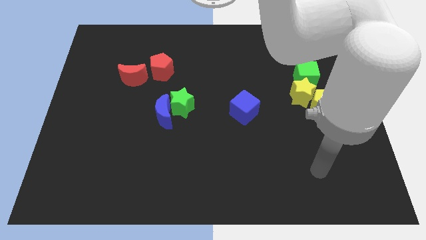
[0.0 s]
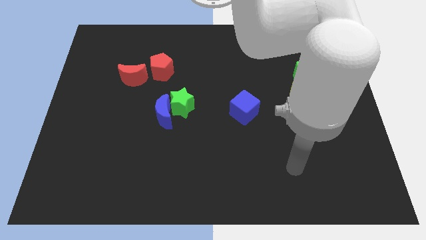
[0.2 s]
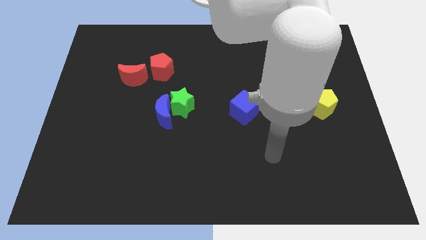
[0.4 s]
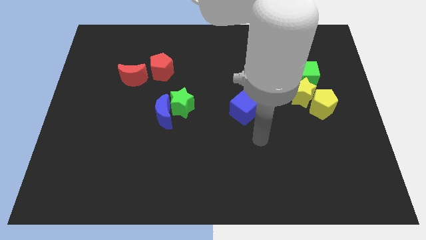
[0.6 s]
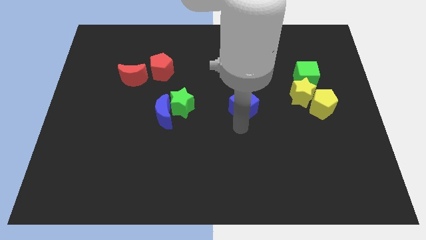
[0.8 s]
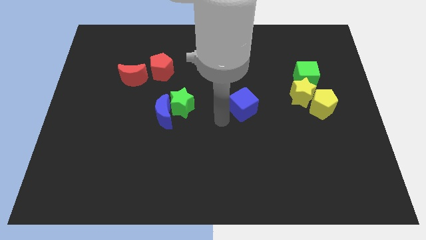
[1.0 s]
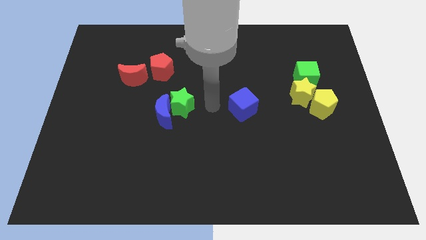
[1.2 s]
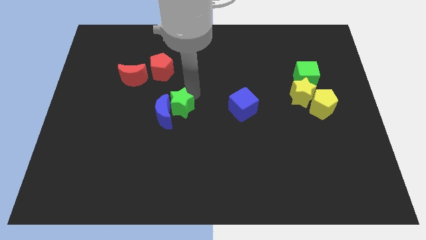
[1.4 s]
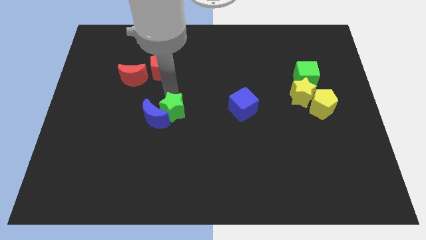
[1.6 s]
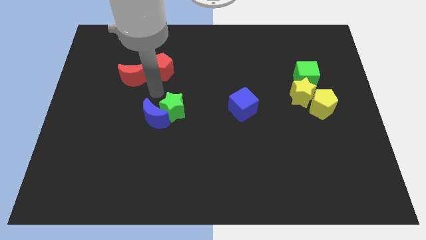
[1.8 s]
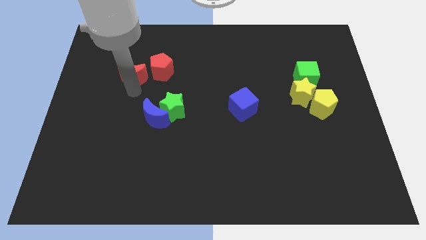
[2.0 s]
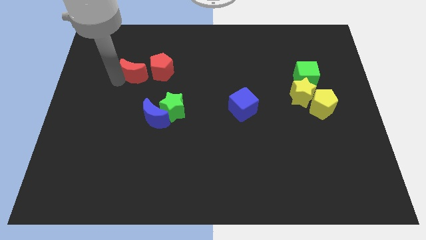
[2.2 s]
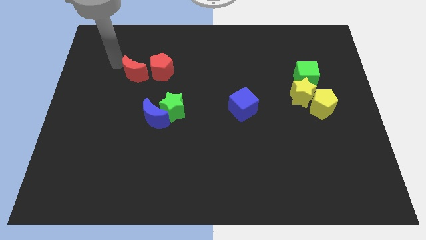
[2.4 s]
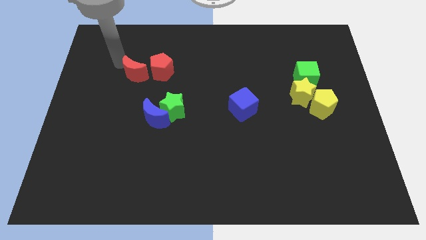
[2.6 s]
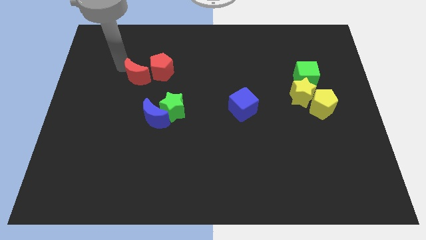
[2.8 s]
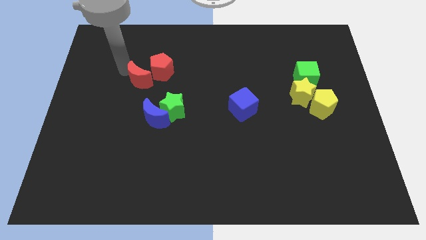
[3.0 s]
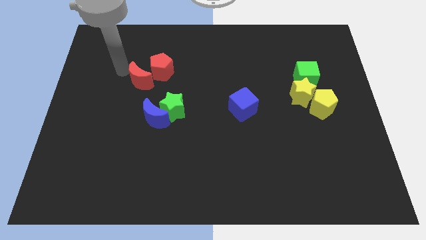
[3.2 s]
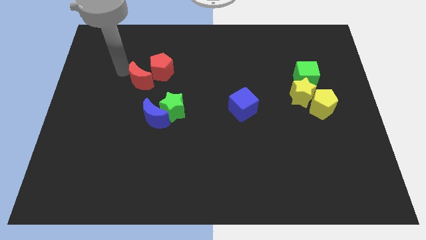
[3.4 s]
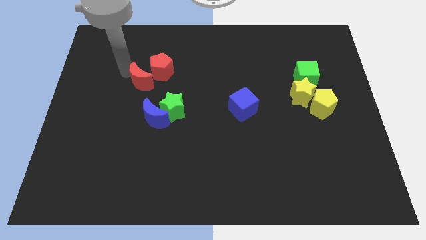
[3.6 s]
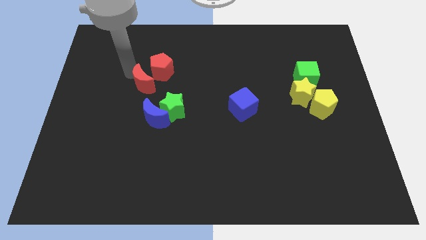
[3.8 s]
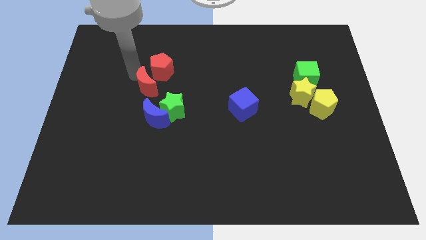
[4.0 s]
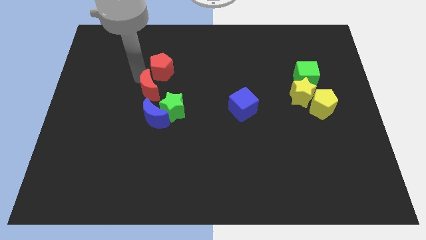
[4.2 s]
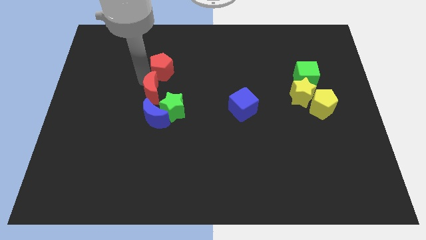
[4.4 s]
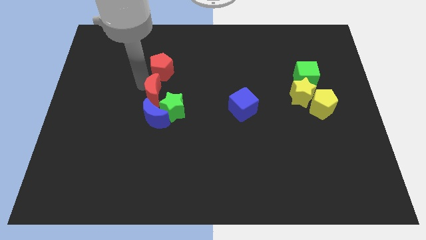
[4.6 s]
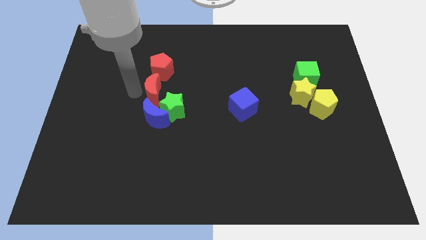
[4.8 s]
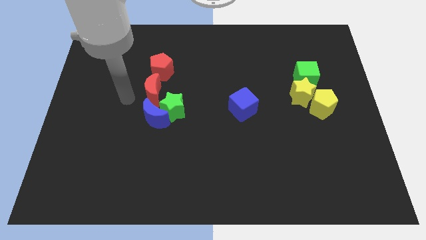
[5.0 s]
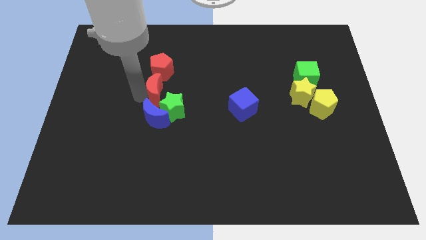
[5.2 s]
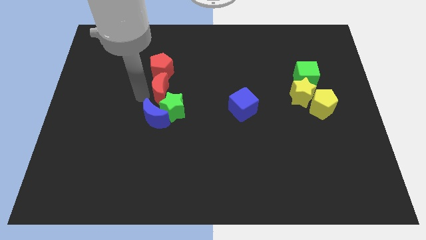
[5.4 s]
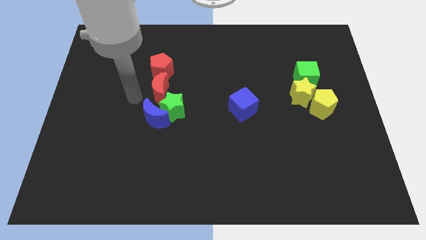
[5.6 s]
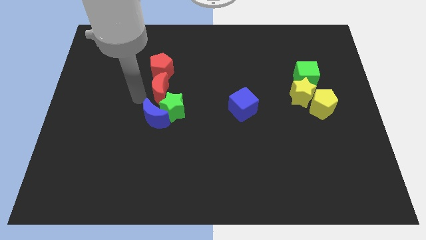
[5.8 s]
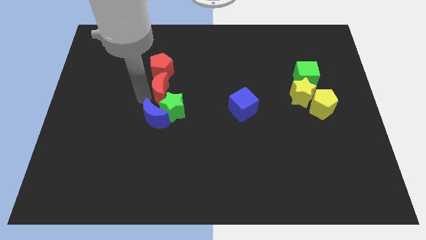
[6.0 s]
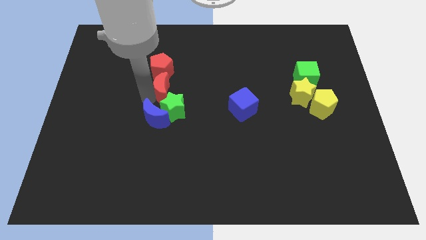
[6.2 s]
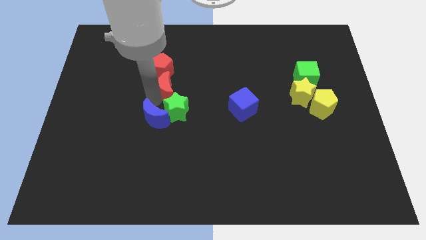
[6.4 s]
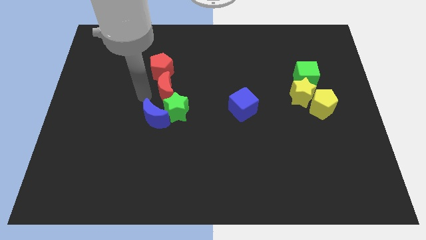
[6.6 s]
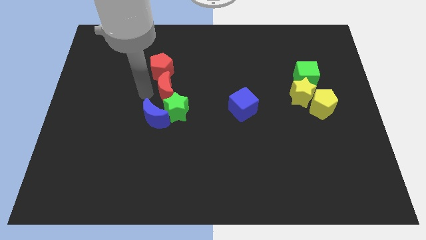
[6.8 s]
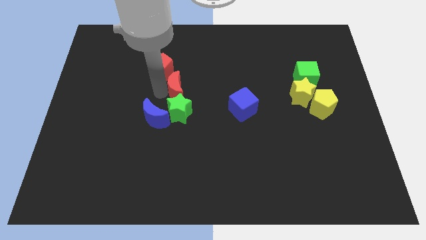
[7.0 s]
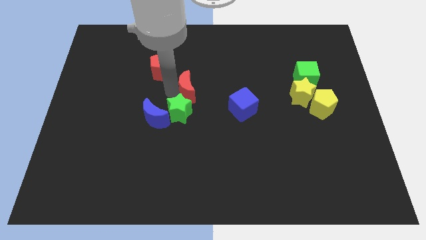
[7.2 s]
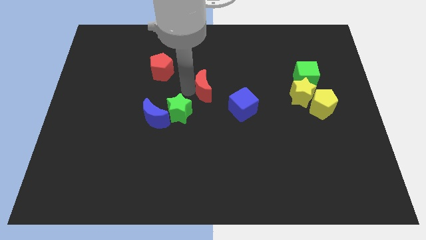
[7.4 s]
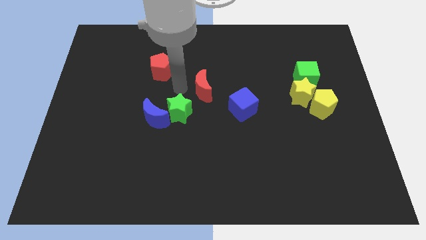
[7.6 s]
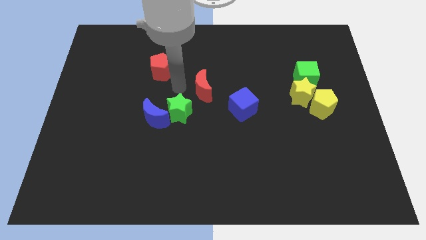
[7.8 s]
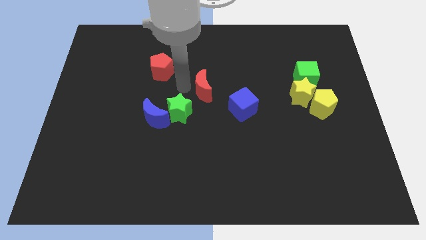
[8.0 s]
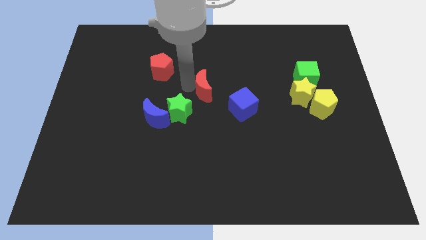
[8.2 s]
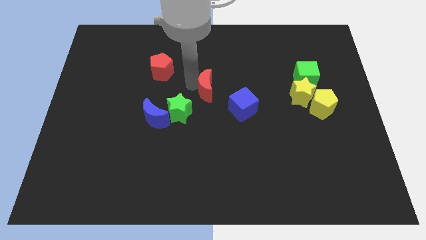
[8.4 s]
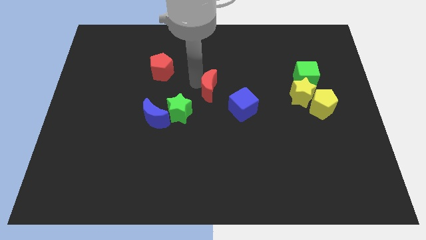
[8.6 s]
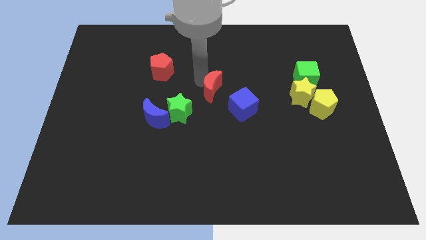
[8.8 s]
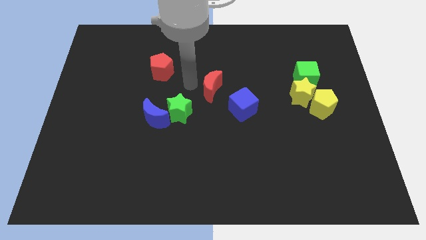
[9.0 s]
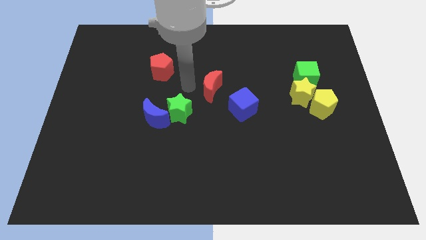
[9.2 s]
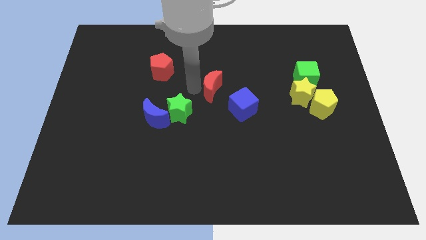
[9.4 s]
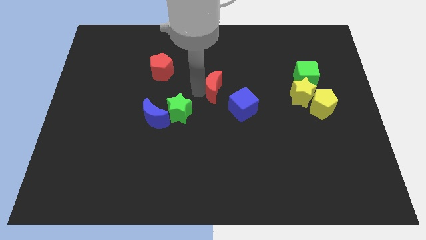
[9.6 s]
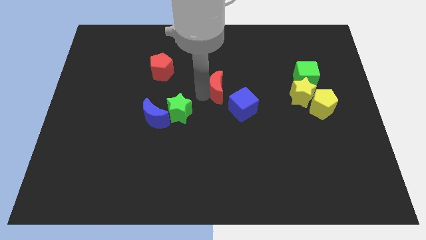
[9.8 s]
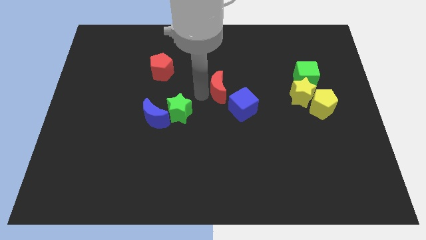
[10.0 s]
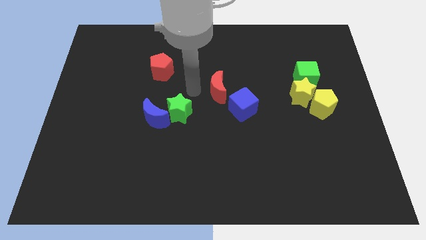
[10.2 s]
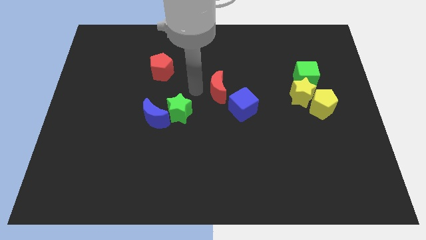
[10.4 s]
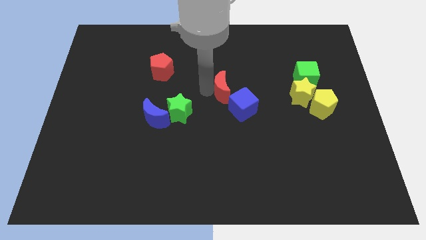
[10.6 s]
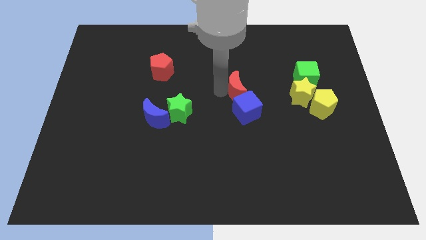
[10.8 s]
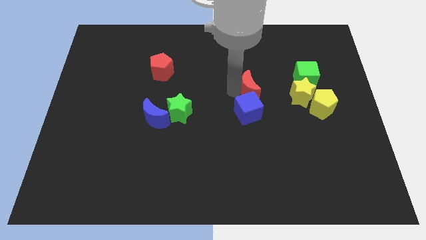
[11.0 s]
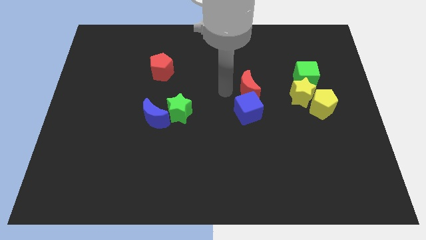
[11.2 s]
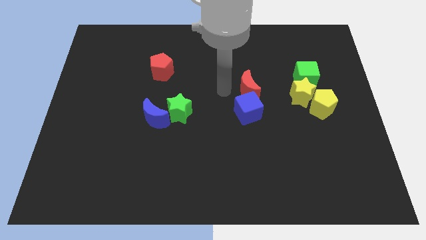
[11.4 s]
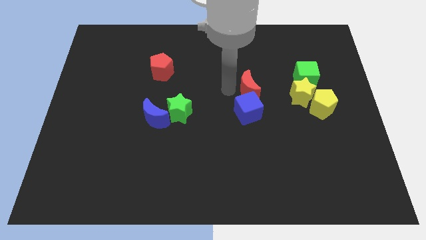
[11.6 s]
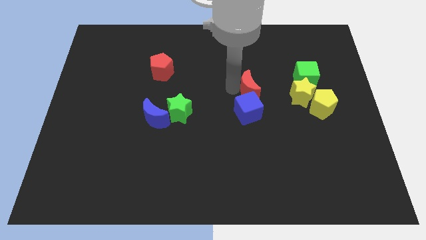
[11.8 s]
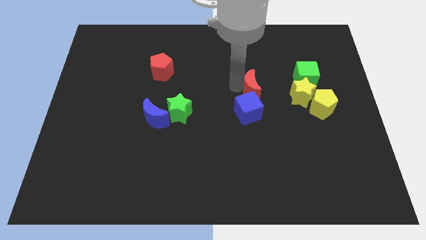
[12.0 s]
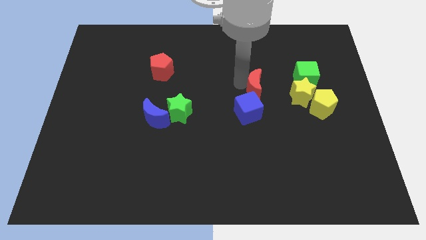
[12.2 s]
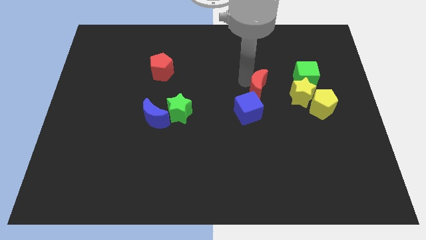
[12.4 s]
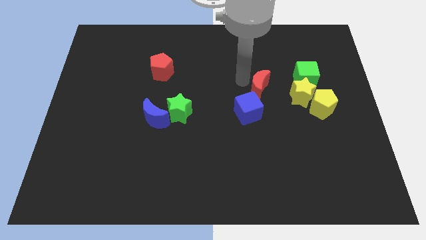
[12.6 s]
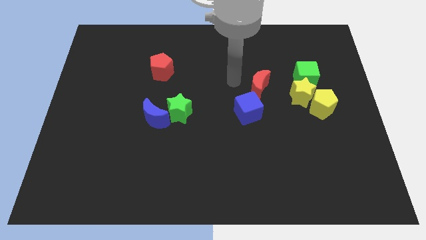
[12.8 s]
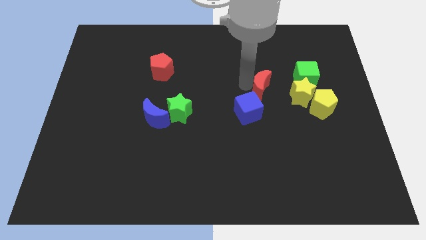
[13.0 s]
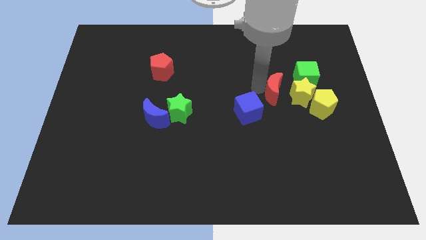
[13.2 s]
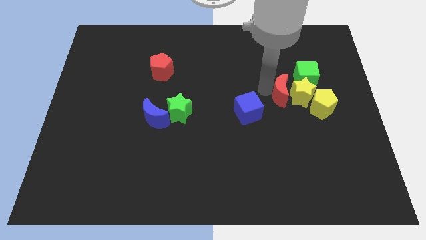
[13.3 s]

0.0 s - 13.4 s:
push the red moon next to the yellow star

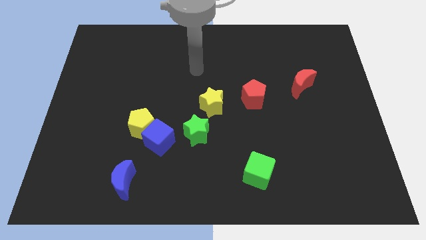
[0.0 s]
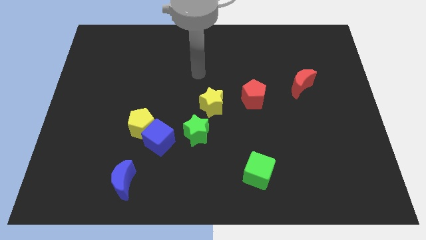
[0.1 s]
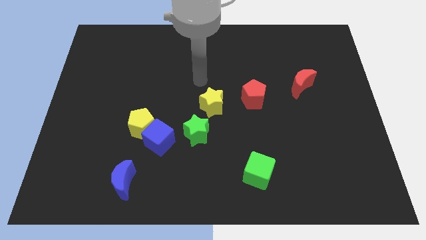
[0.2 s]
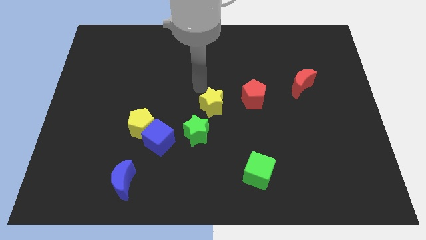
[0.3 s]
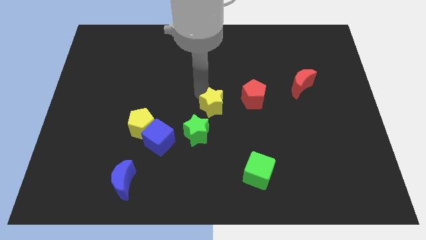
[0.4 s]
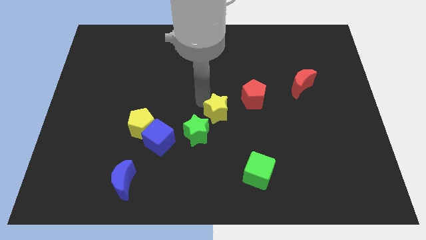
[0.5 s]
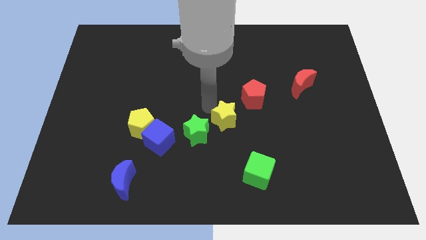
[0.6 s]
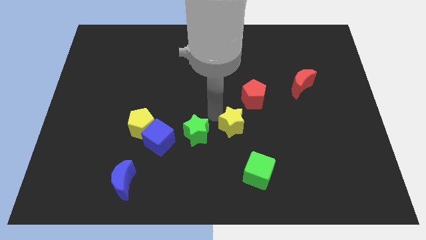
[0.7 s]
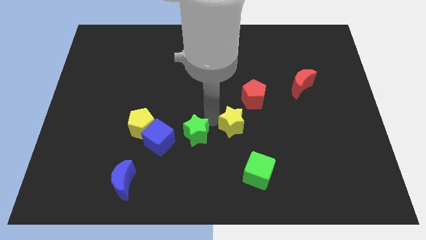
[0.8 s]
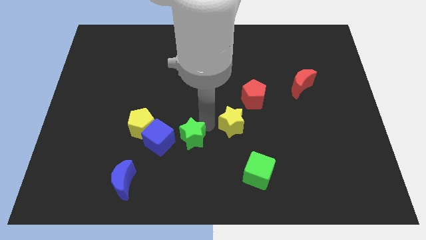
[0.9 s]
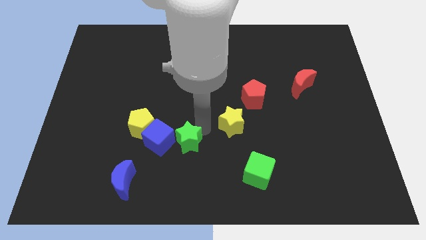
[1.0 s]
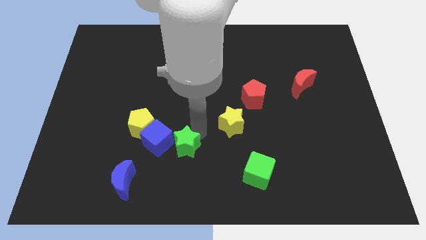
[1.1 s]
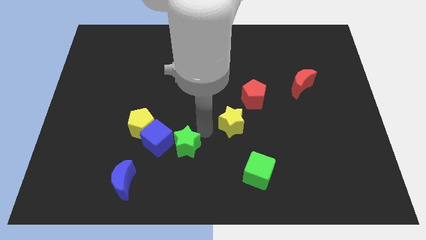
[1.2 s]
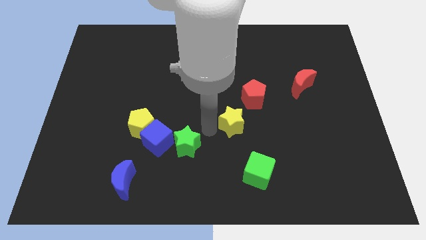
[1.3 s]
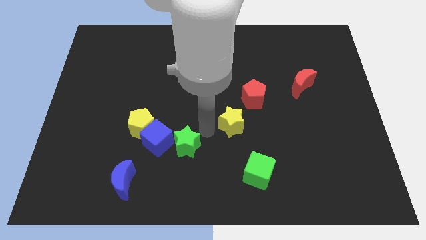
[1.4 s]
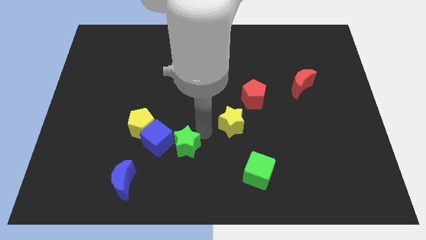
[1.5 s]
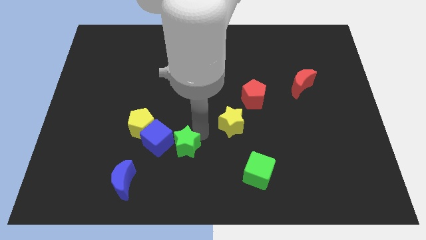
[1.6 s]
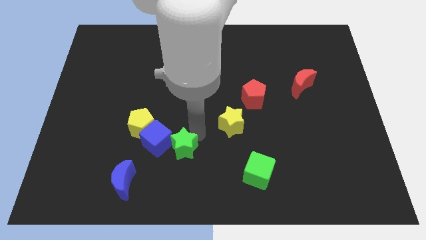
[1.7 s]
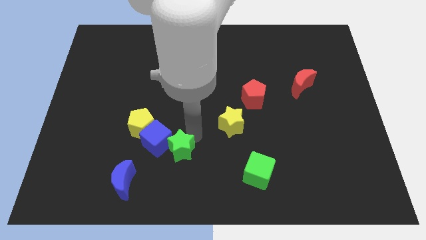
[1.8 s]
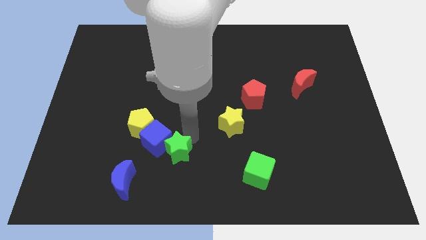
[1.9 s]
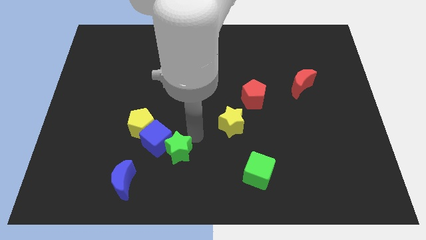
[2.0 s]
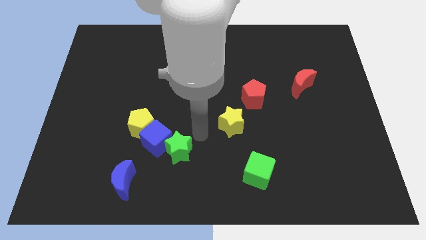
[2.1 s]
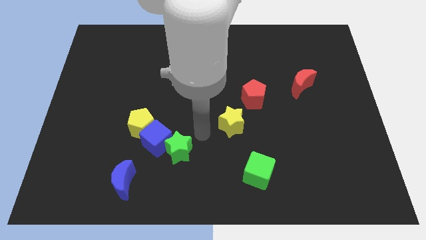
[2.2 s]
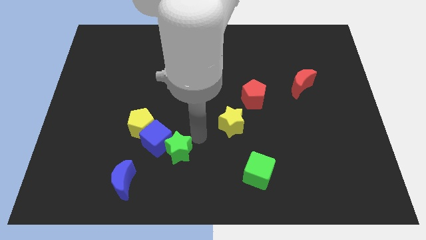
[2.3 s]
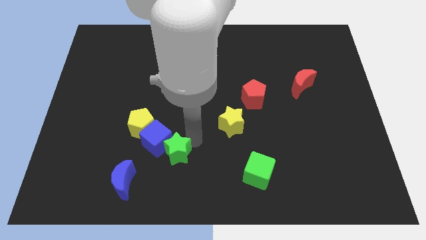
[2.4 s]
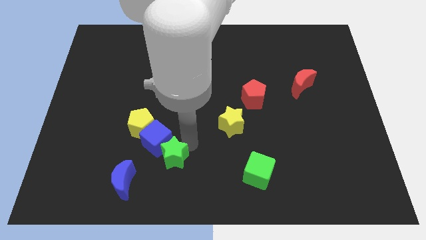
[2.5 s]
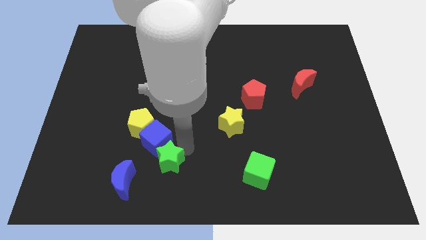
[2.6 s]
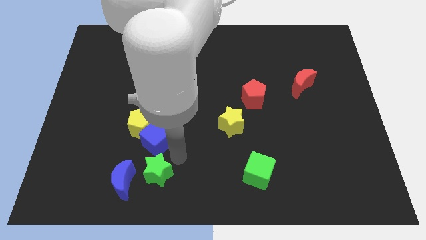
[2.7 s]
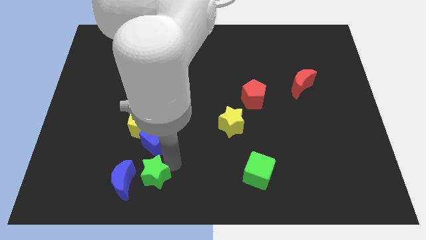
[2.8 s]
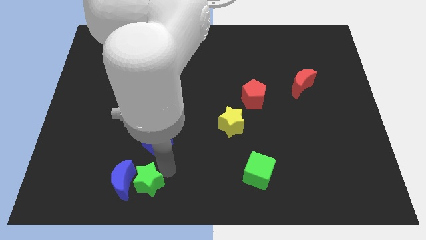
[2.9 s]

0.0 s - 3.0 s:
move the green star to the blue moon
